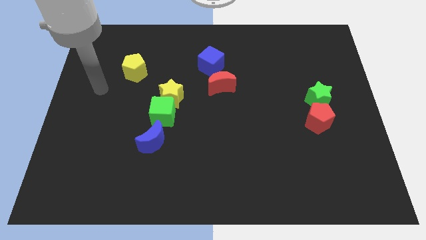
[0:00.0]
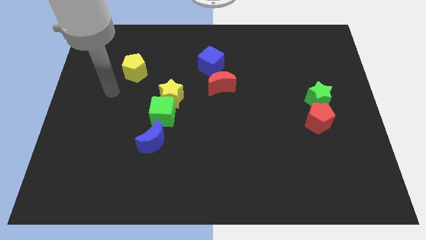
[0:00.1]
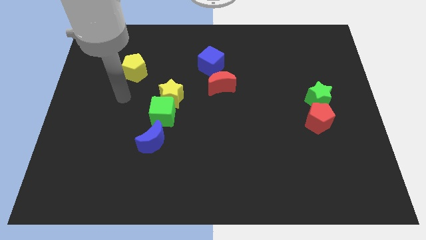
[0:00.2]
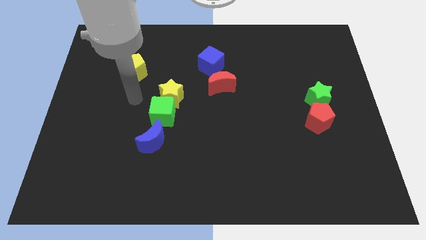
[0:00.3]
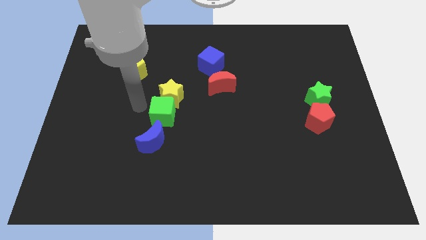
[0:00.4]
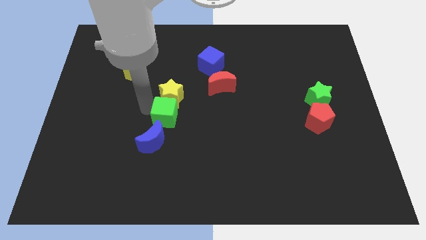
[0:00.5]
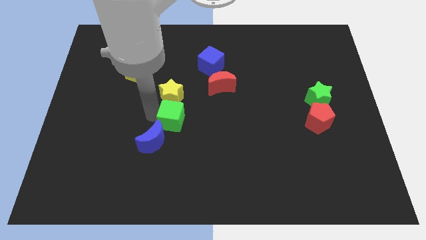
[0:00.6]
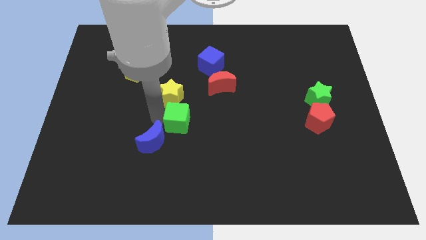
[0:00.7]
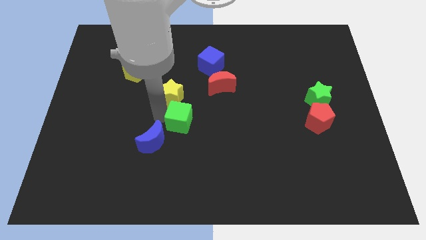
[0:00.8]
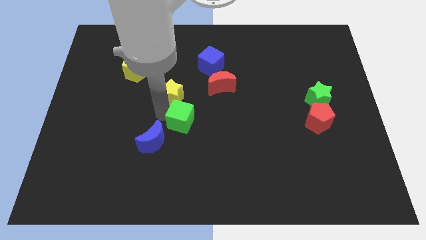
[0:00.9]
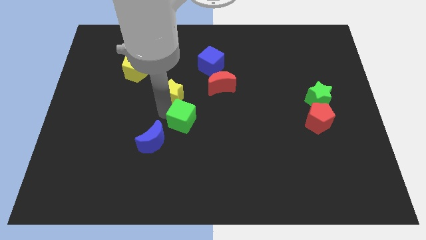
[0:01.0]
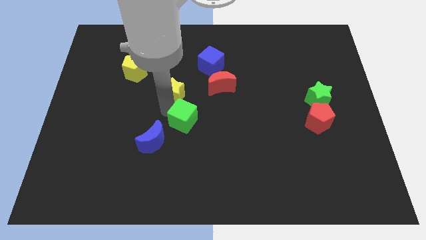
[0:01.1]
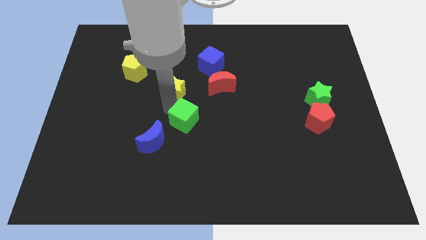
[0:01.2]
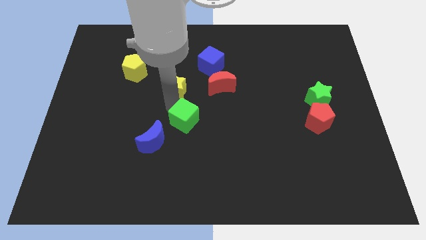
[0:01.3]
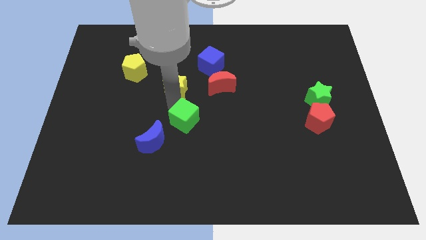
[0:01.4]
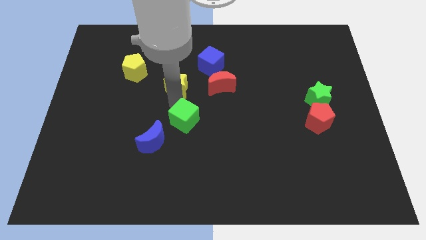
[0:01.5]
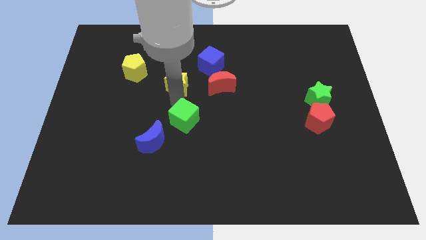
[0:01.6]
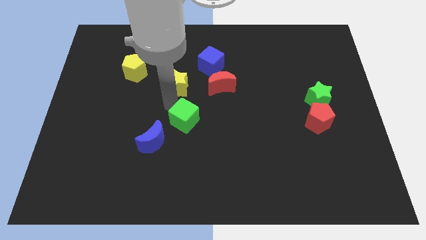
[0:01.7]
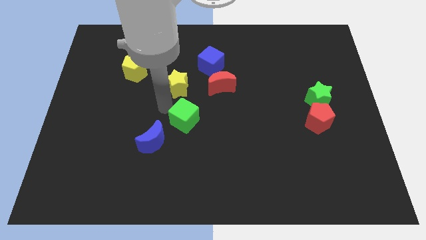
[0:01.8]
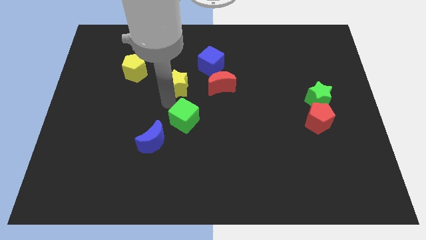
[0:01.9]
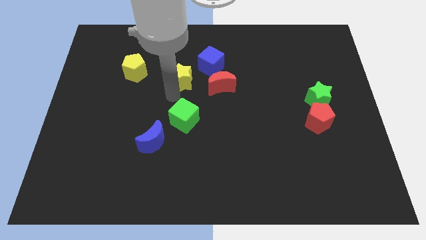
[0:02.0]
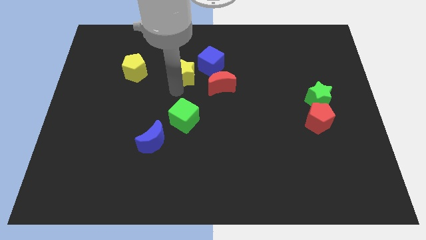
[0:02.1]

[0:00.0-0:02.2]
move the yellow star a little upwards and right

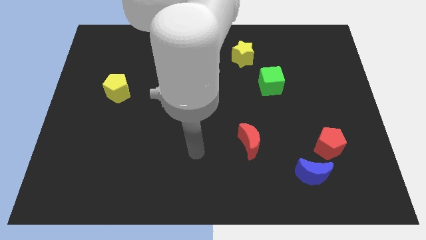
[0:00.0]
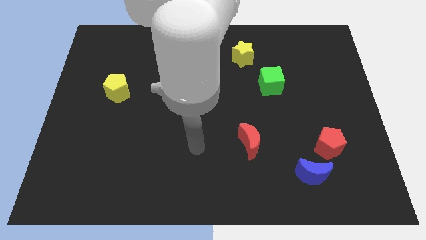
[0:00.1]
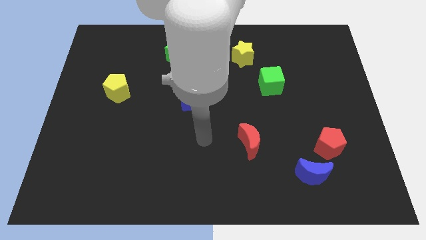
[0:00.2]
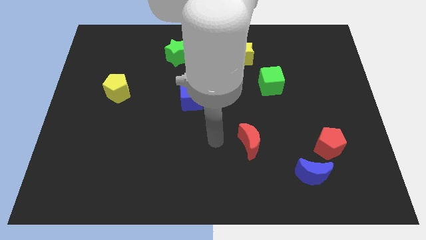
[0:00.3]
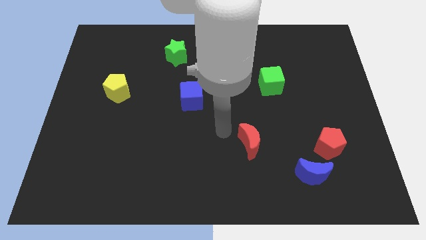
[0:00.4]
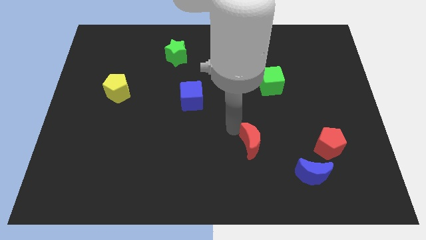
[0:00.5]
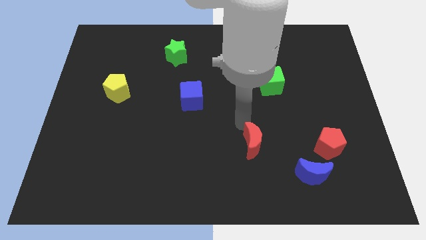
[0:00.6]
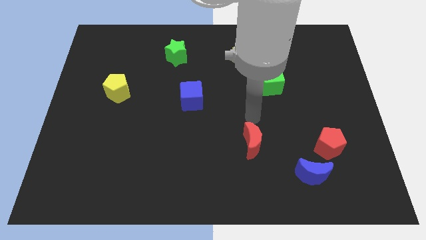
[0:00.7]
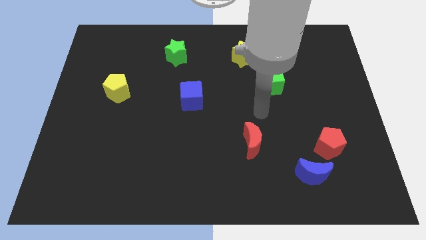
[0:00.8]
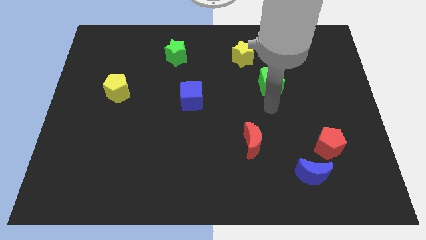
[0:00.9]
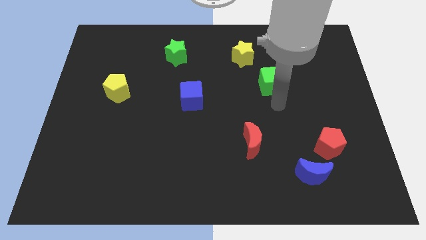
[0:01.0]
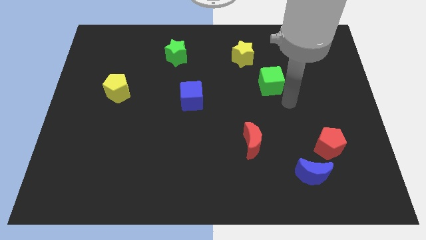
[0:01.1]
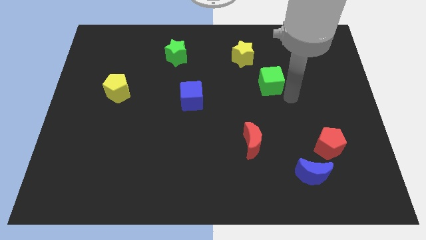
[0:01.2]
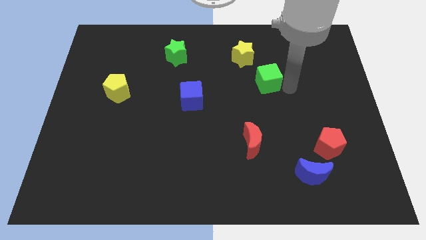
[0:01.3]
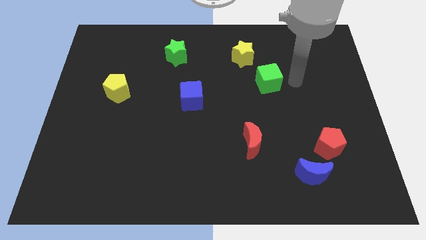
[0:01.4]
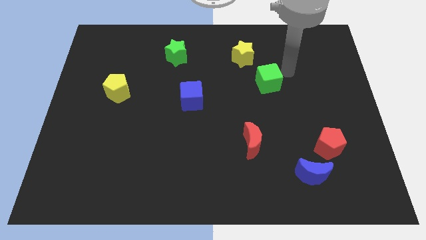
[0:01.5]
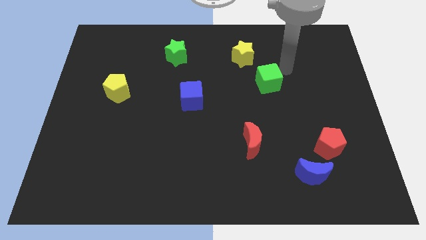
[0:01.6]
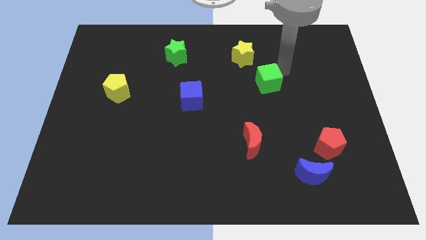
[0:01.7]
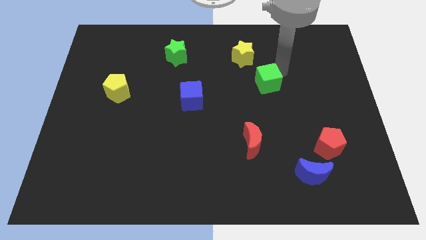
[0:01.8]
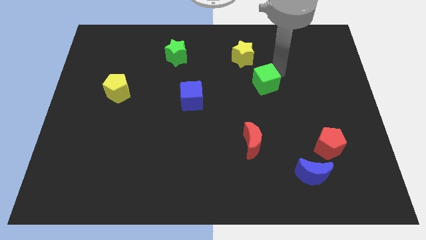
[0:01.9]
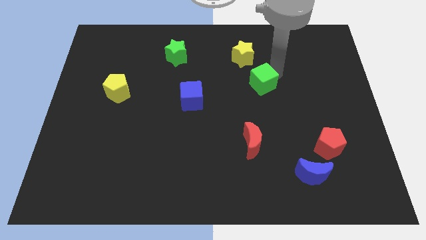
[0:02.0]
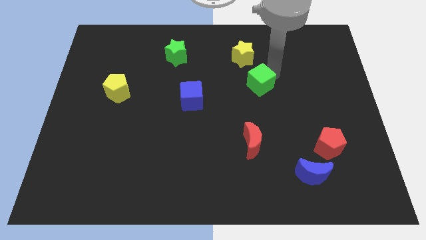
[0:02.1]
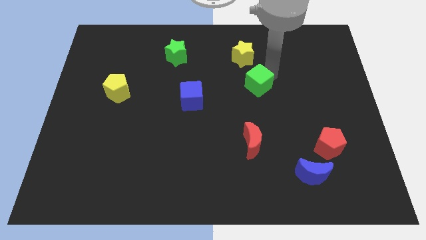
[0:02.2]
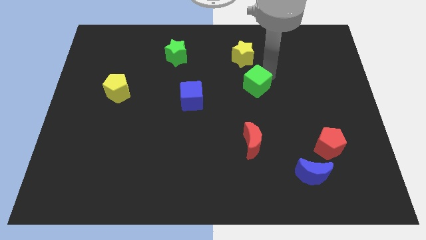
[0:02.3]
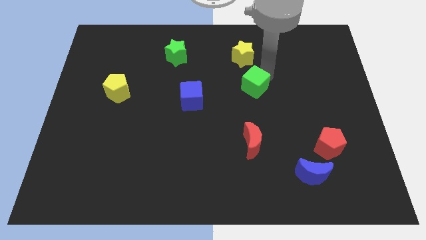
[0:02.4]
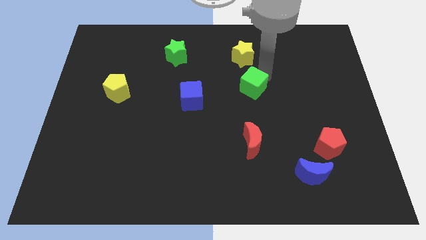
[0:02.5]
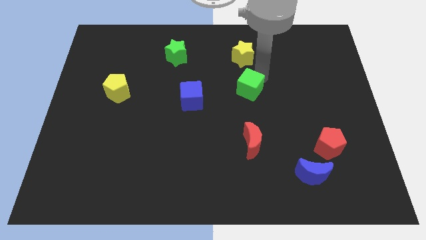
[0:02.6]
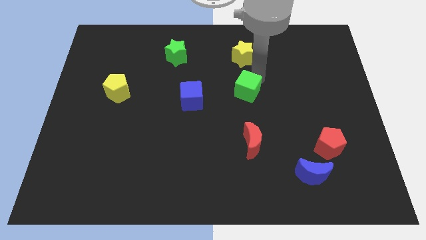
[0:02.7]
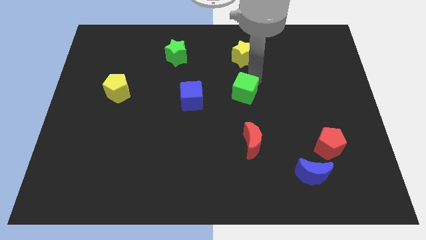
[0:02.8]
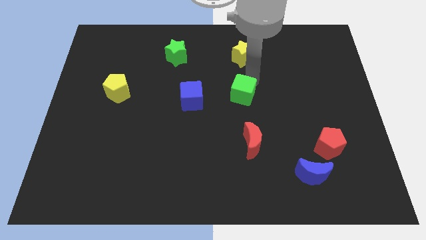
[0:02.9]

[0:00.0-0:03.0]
push the green cube down and then left somewhat

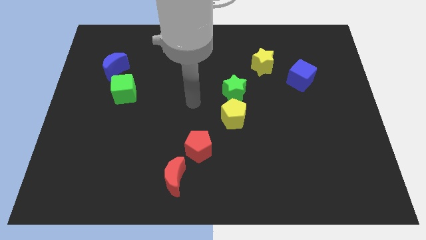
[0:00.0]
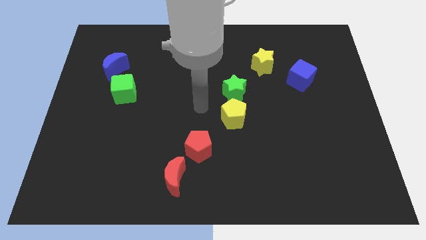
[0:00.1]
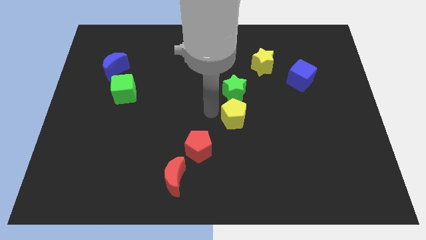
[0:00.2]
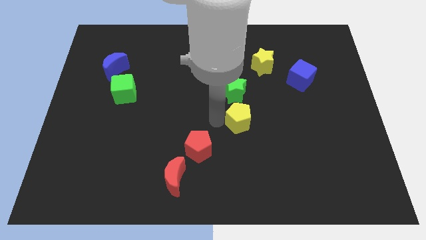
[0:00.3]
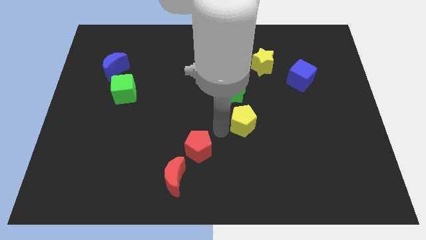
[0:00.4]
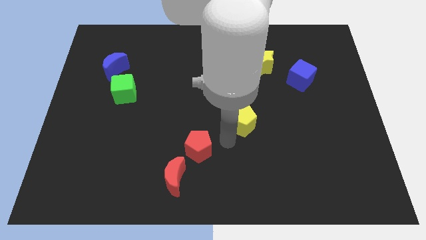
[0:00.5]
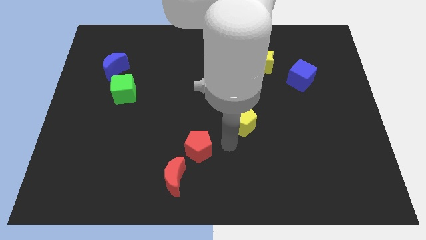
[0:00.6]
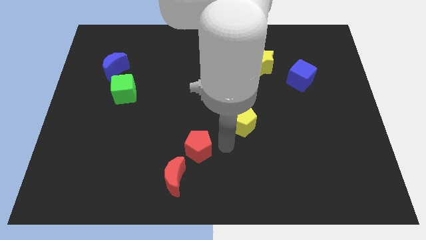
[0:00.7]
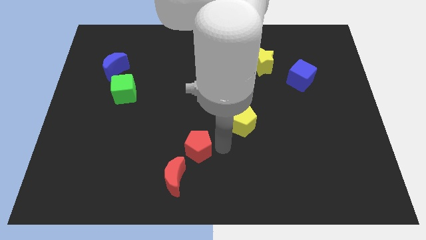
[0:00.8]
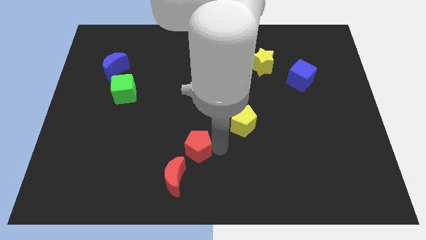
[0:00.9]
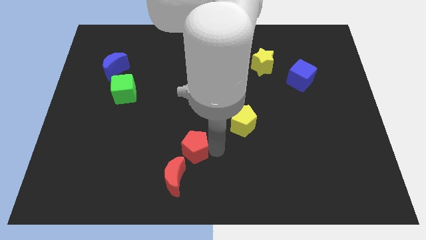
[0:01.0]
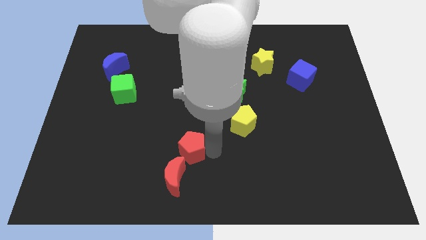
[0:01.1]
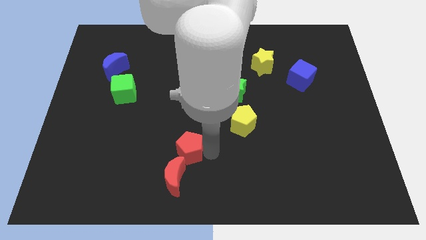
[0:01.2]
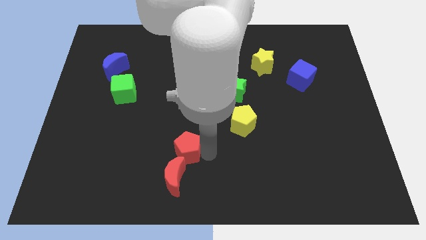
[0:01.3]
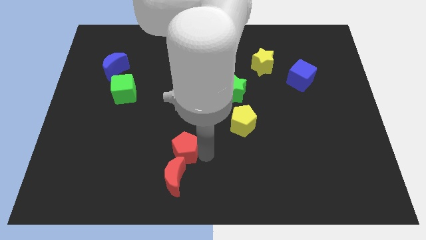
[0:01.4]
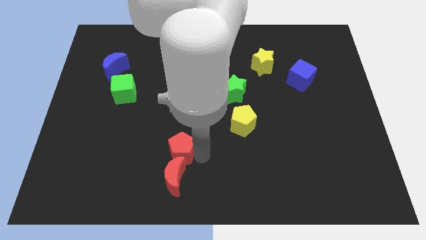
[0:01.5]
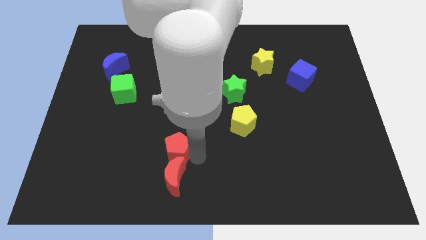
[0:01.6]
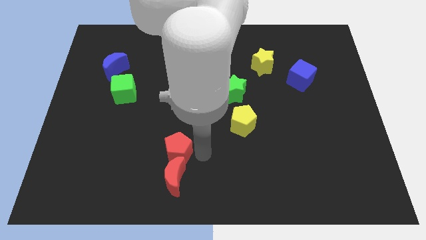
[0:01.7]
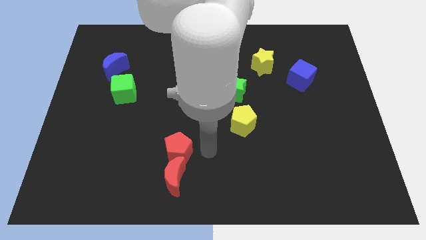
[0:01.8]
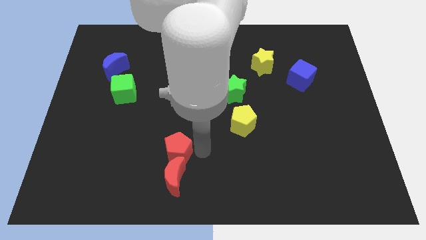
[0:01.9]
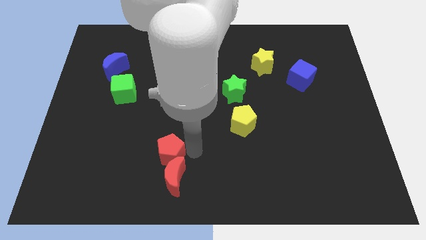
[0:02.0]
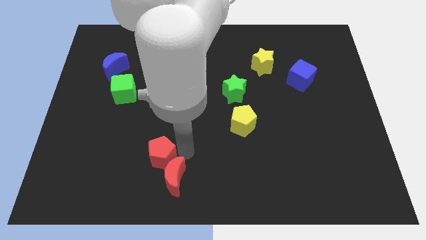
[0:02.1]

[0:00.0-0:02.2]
push the red pentagon somewhat to the left

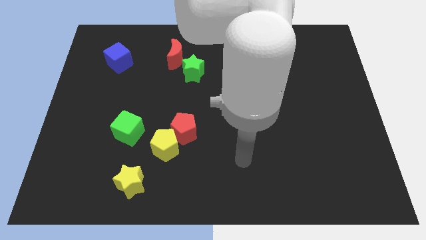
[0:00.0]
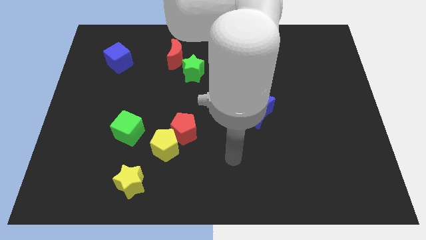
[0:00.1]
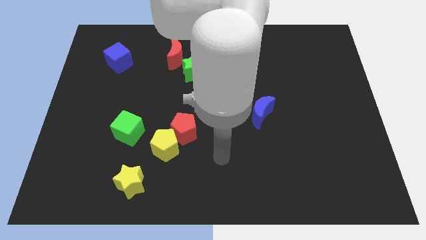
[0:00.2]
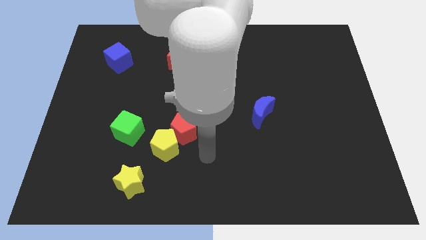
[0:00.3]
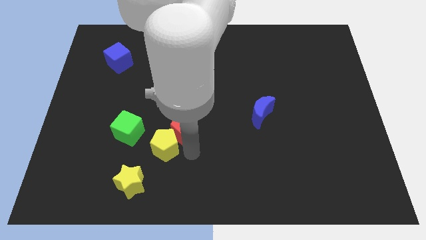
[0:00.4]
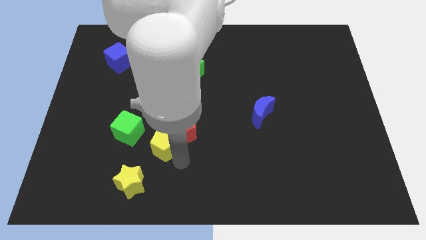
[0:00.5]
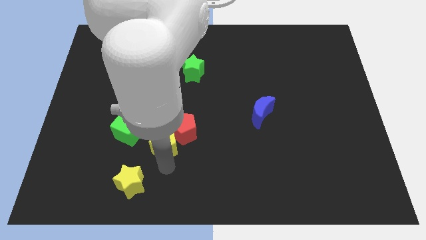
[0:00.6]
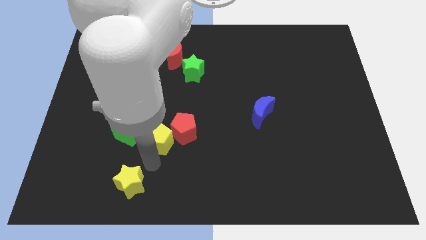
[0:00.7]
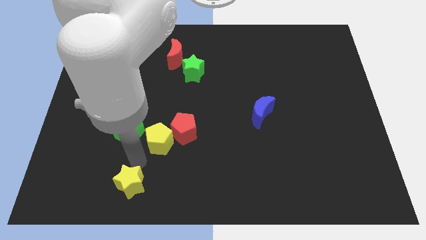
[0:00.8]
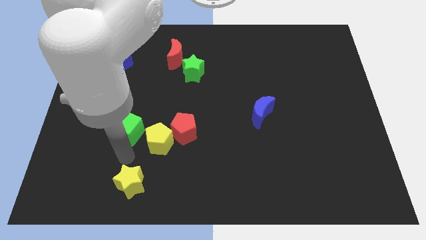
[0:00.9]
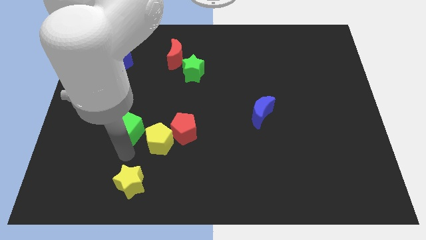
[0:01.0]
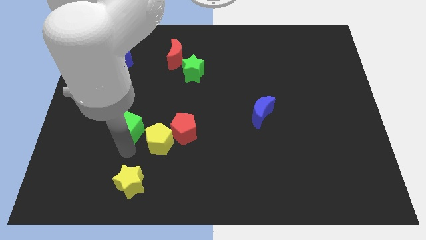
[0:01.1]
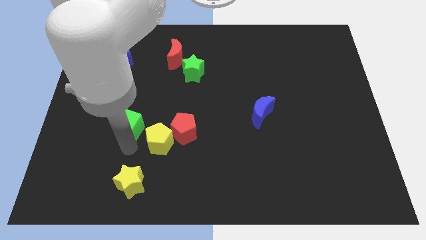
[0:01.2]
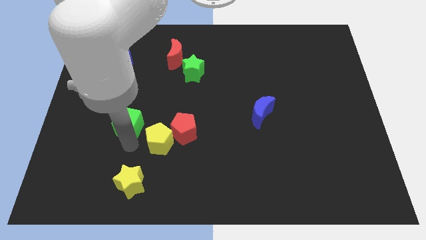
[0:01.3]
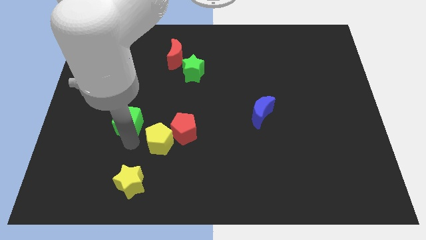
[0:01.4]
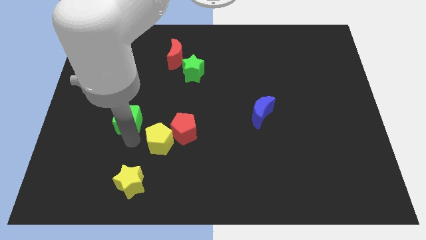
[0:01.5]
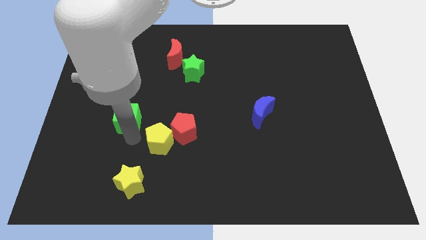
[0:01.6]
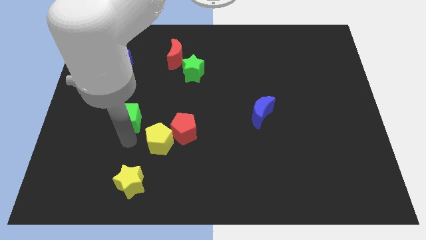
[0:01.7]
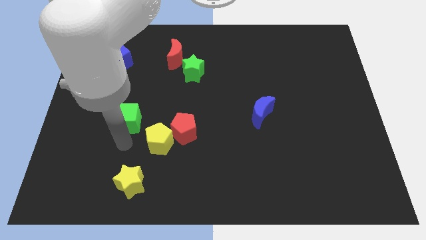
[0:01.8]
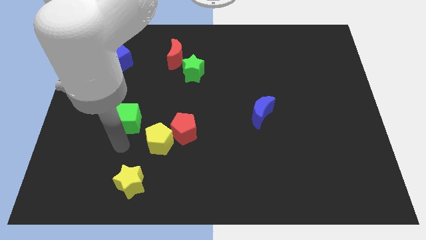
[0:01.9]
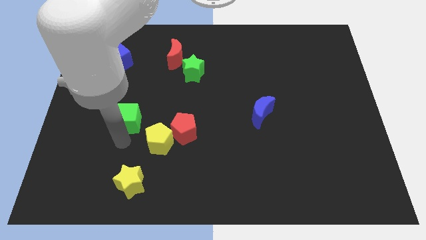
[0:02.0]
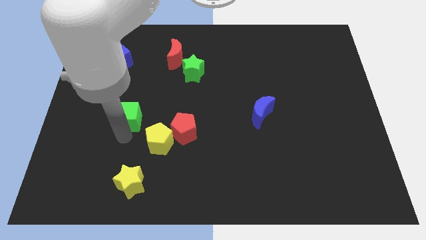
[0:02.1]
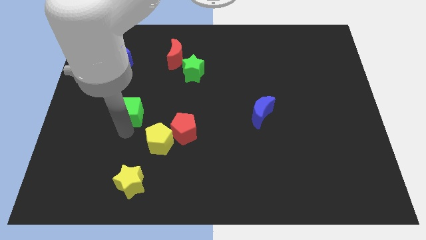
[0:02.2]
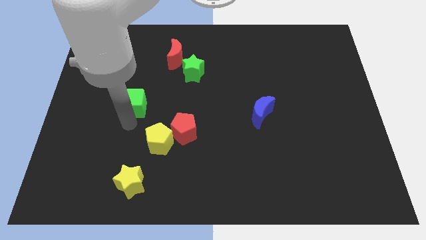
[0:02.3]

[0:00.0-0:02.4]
move the green cube somewhat up
